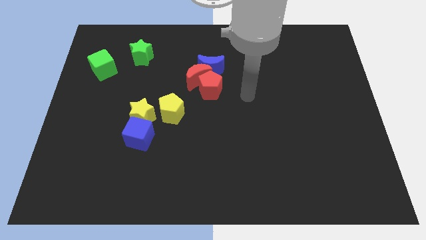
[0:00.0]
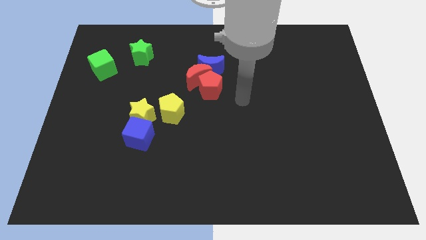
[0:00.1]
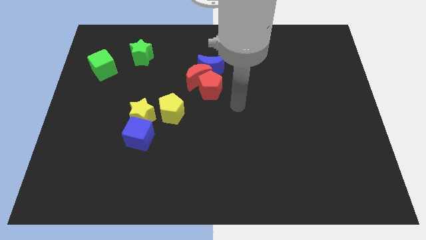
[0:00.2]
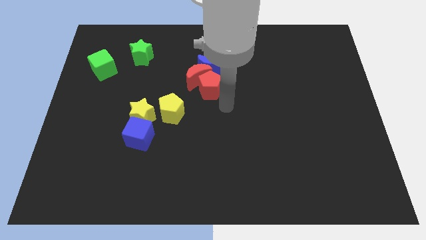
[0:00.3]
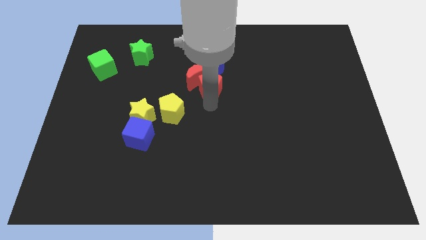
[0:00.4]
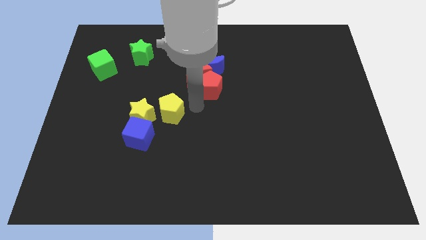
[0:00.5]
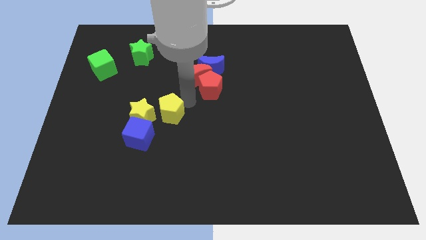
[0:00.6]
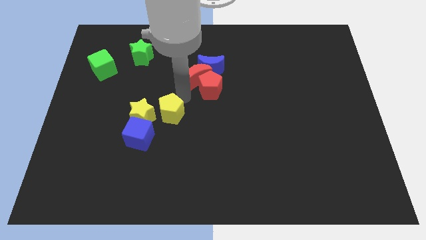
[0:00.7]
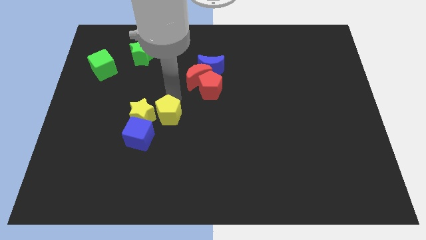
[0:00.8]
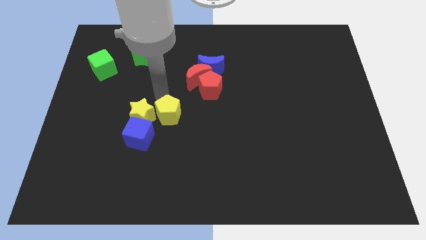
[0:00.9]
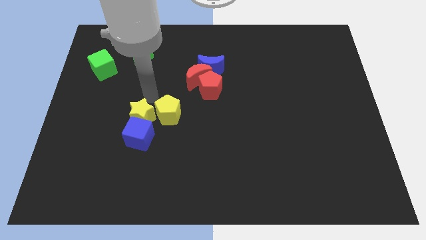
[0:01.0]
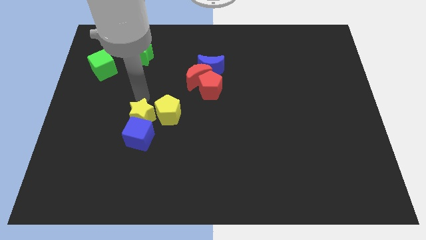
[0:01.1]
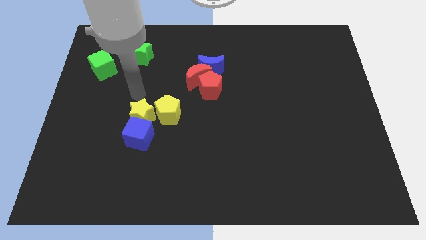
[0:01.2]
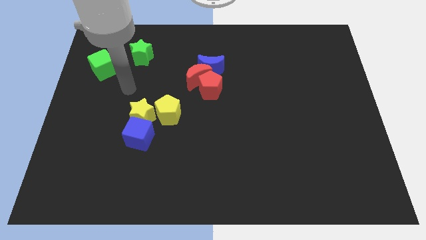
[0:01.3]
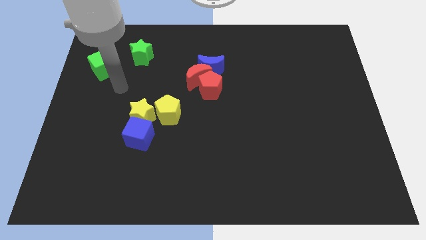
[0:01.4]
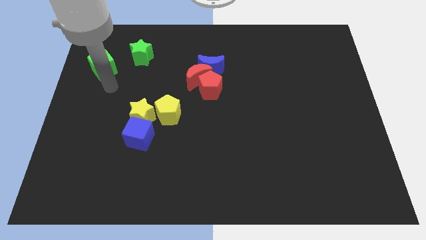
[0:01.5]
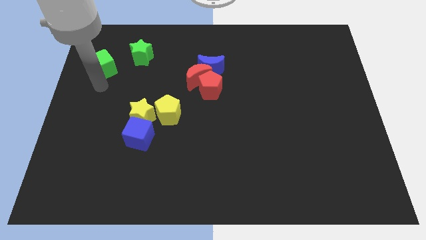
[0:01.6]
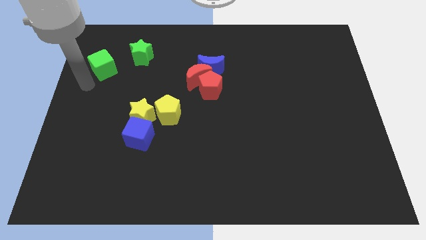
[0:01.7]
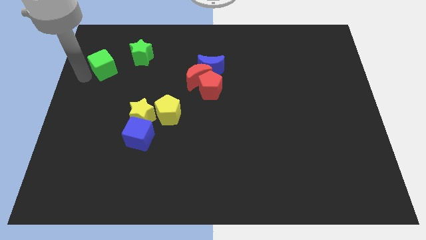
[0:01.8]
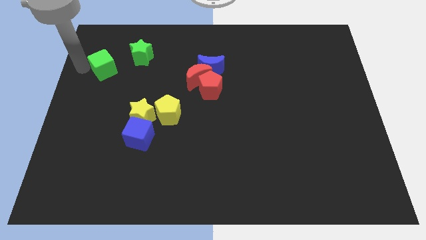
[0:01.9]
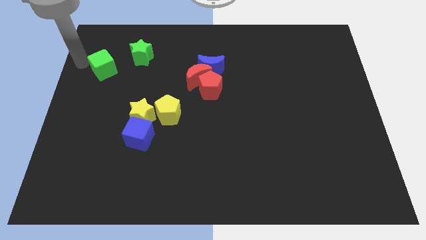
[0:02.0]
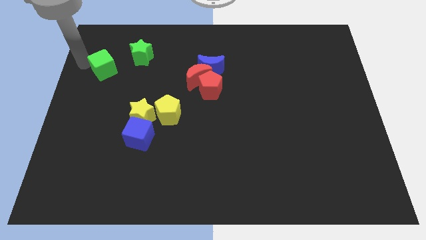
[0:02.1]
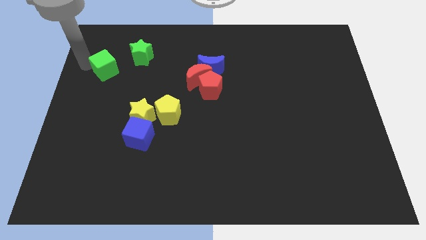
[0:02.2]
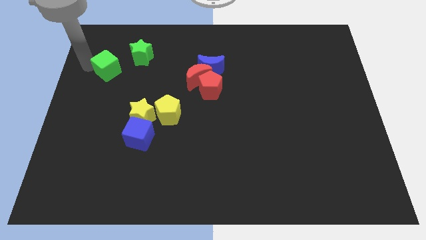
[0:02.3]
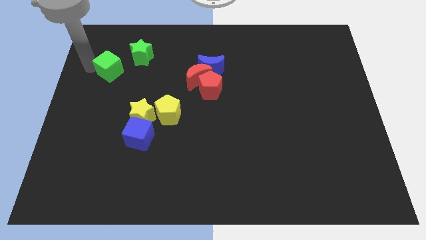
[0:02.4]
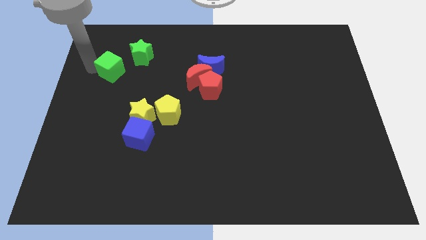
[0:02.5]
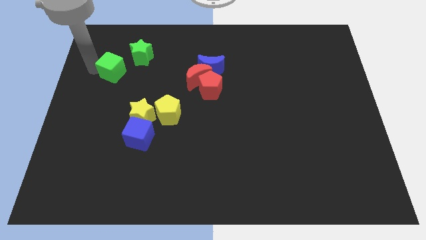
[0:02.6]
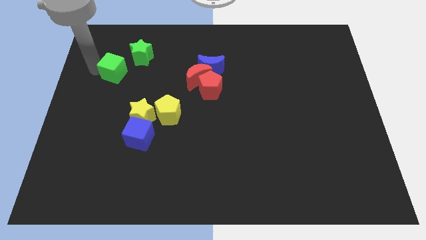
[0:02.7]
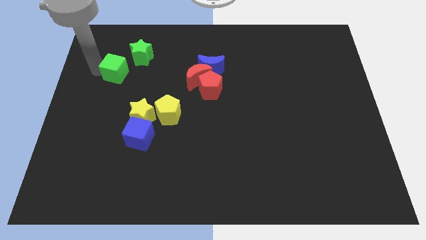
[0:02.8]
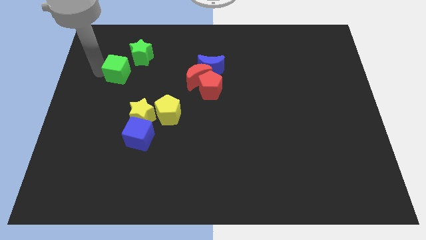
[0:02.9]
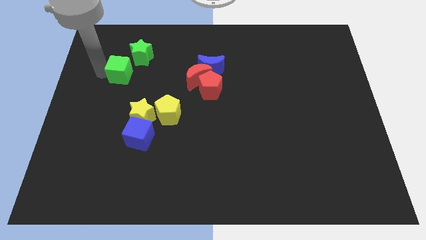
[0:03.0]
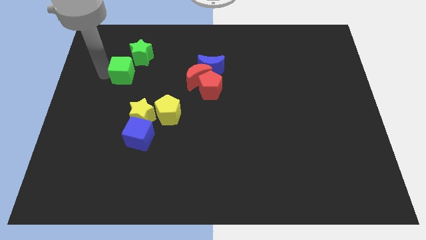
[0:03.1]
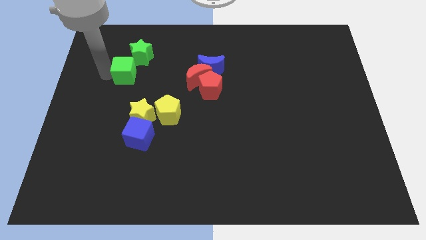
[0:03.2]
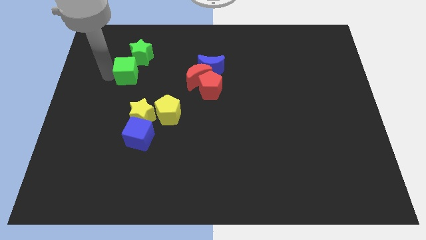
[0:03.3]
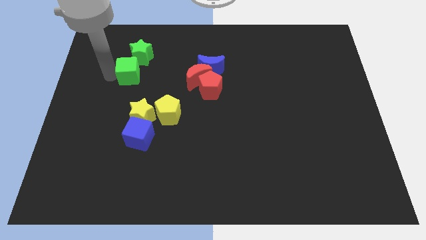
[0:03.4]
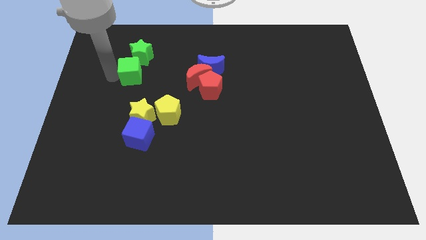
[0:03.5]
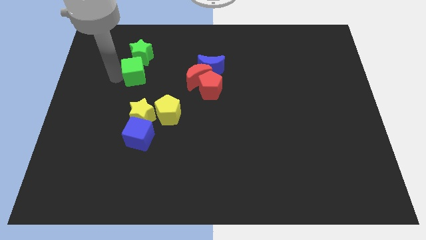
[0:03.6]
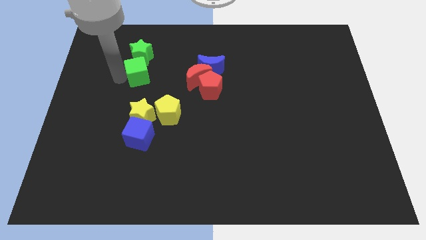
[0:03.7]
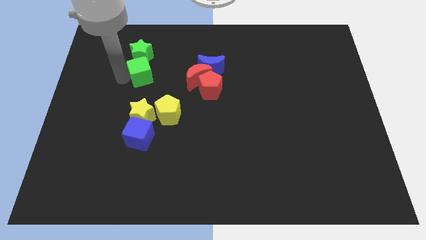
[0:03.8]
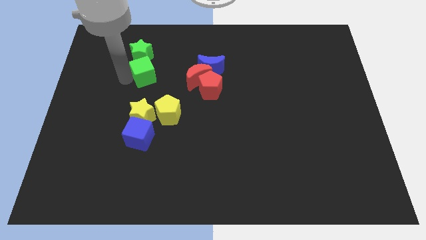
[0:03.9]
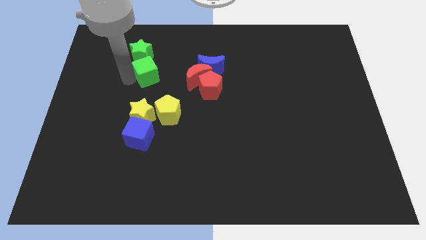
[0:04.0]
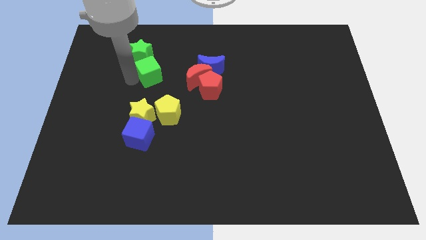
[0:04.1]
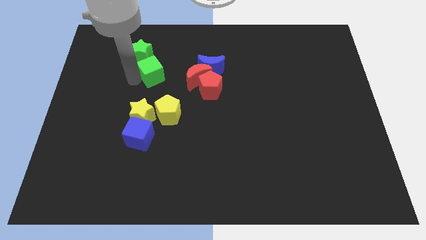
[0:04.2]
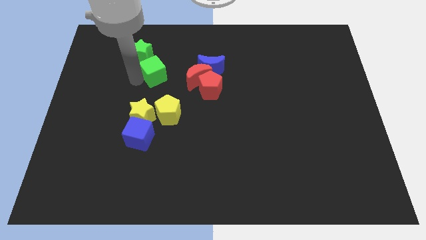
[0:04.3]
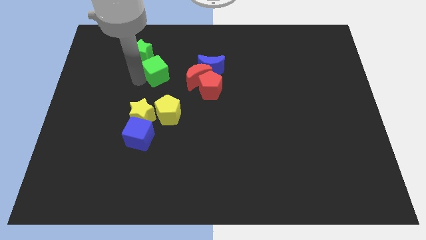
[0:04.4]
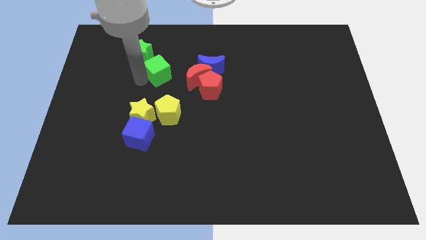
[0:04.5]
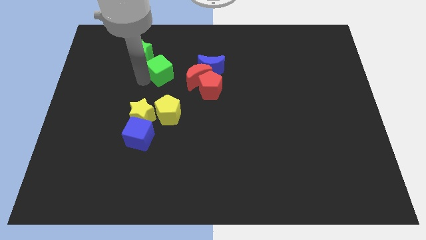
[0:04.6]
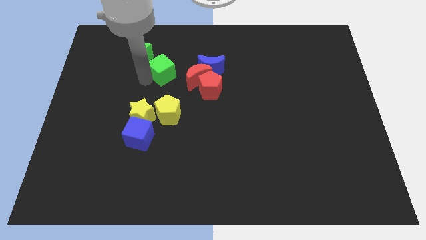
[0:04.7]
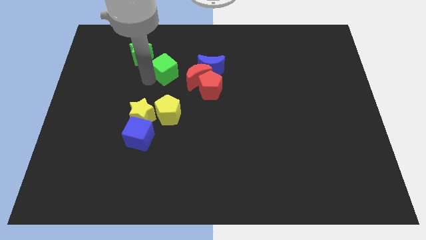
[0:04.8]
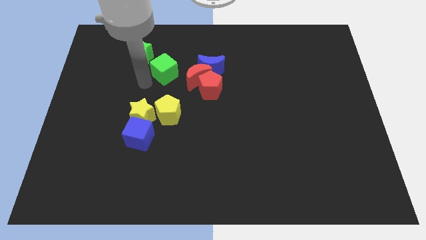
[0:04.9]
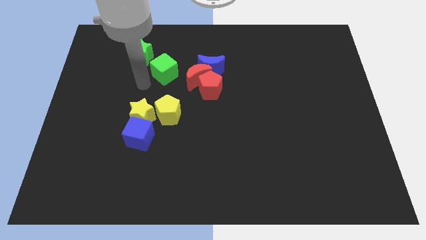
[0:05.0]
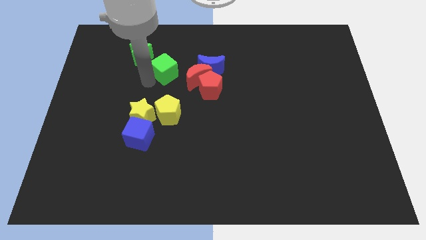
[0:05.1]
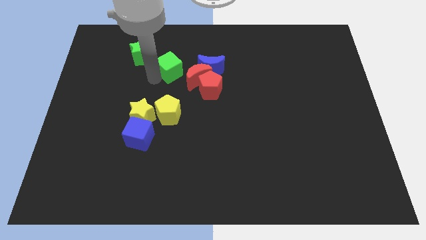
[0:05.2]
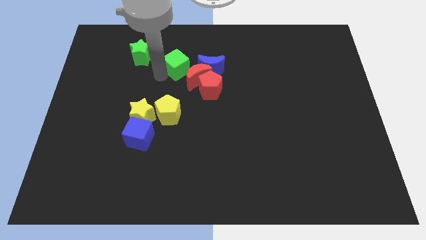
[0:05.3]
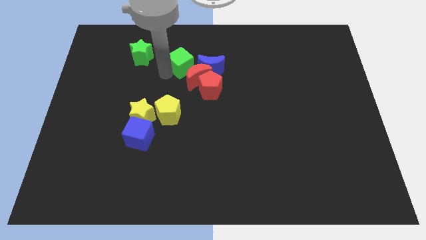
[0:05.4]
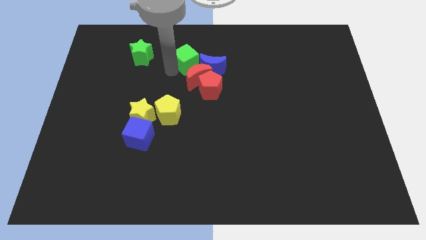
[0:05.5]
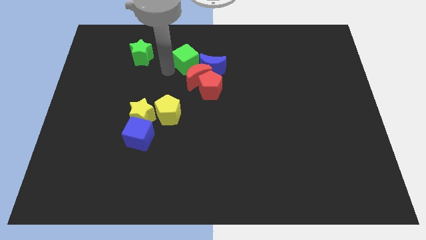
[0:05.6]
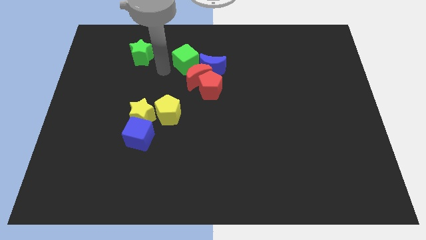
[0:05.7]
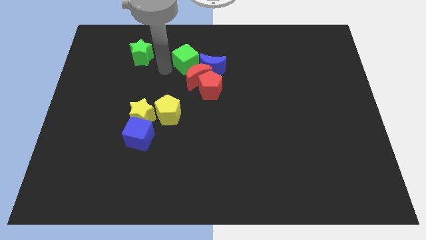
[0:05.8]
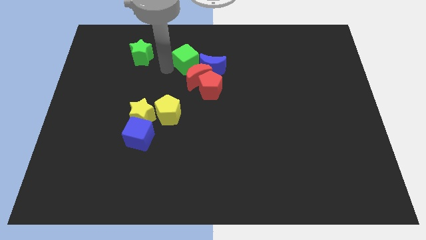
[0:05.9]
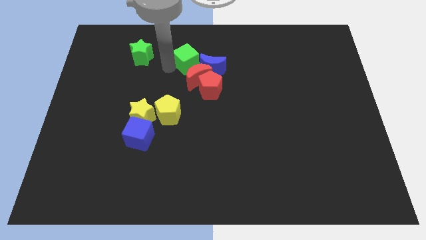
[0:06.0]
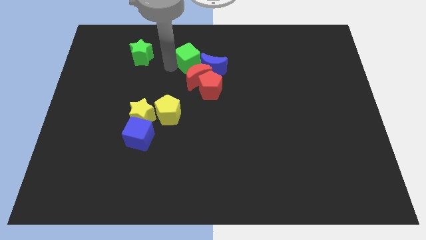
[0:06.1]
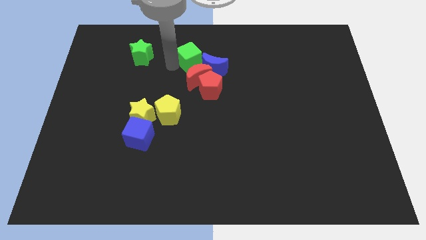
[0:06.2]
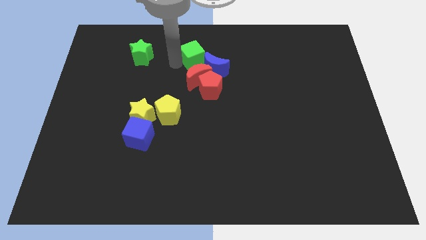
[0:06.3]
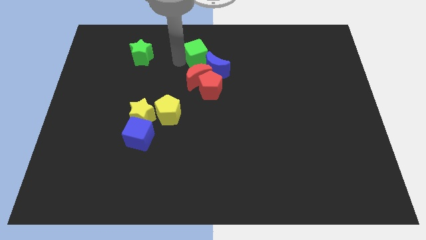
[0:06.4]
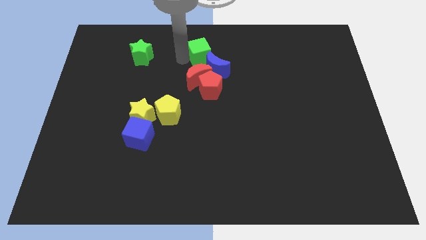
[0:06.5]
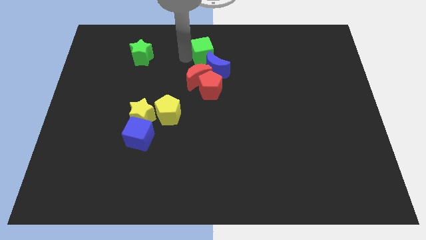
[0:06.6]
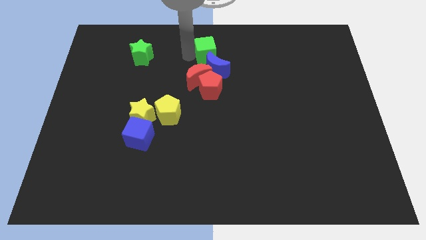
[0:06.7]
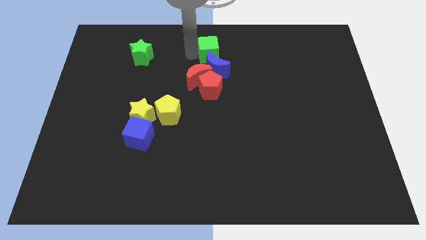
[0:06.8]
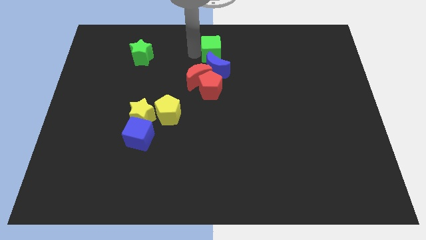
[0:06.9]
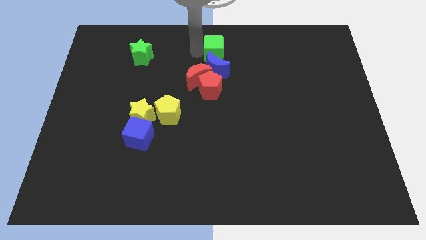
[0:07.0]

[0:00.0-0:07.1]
slide the green cube to the top right side of the blue moon

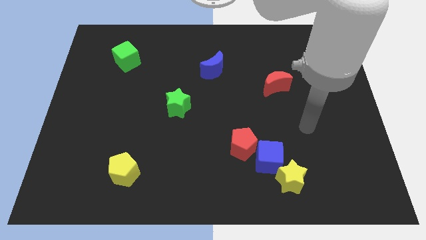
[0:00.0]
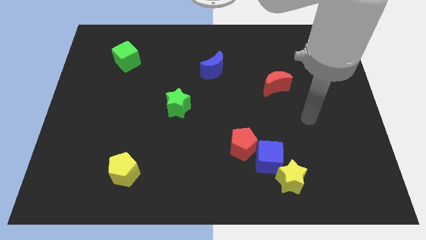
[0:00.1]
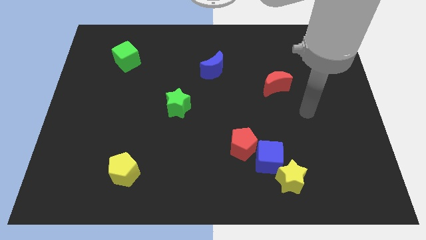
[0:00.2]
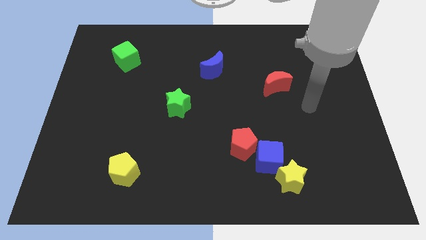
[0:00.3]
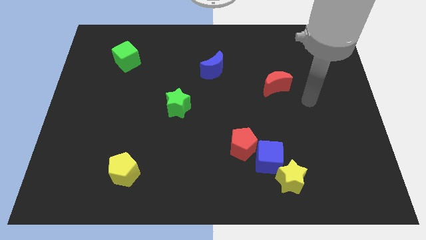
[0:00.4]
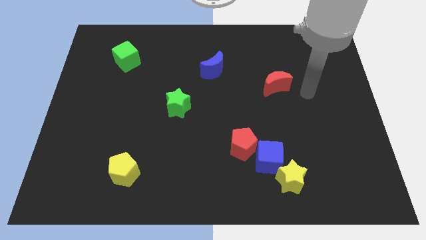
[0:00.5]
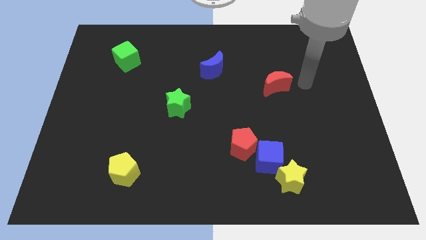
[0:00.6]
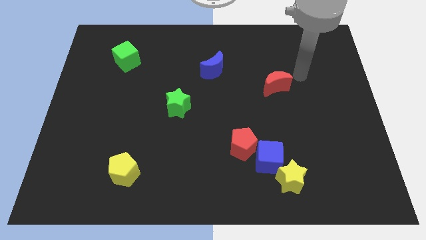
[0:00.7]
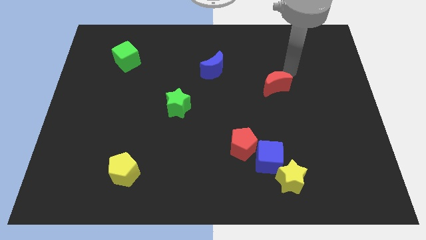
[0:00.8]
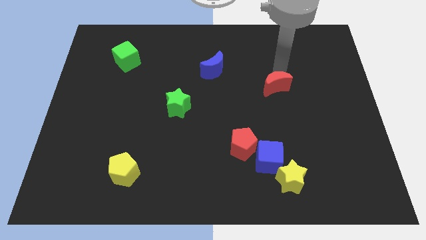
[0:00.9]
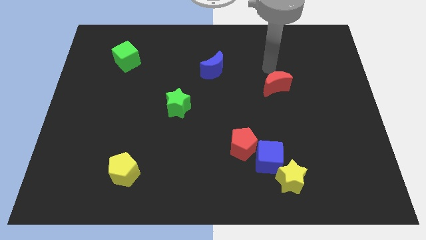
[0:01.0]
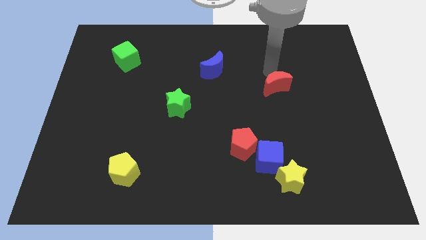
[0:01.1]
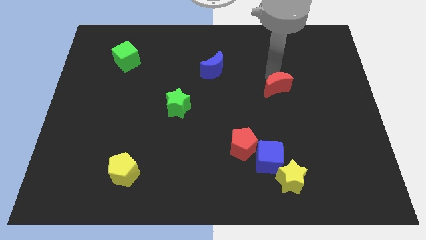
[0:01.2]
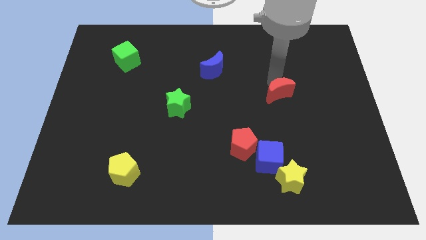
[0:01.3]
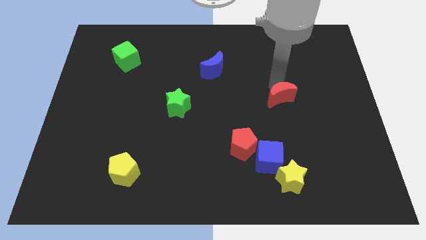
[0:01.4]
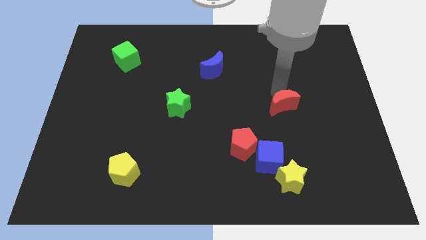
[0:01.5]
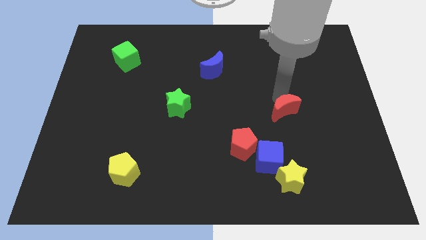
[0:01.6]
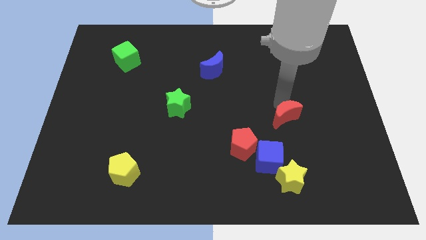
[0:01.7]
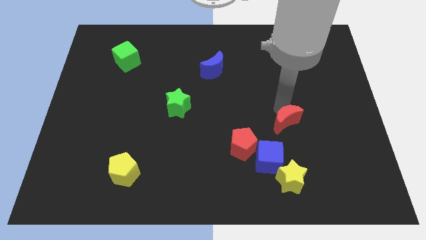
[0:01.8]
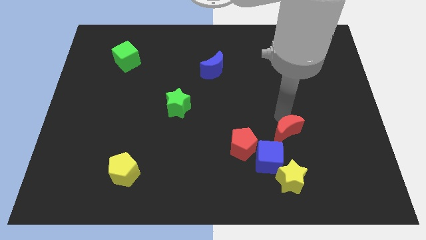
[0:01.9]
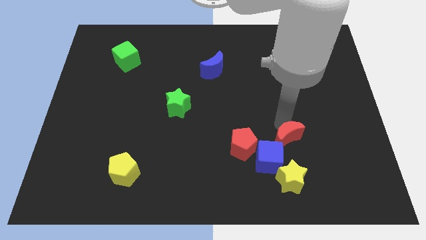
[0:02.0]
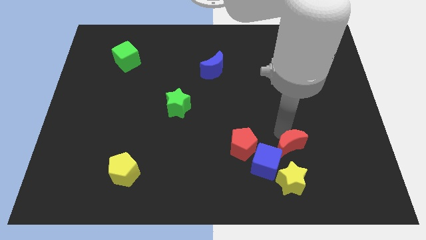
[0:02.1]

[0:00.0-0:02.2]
put the red moon to the right side of the blue cube
